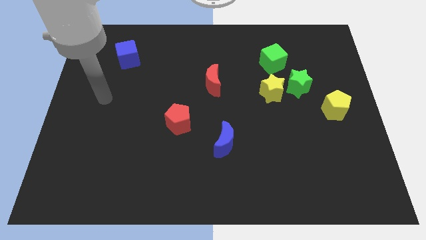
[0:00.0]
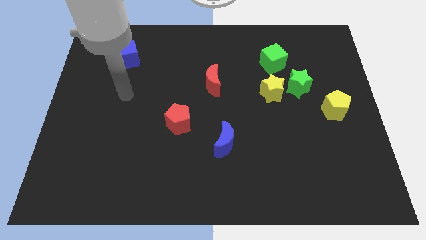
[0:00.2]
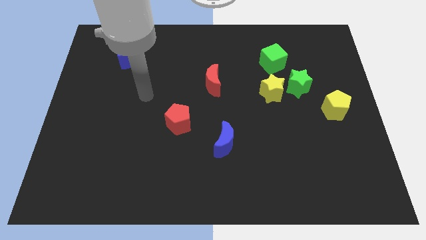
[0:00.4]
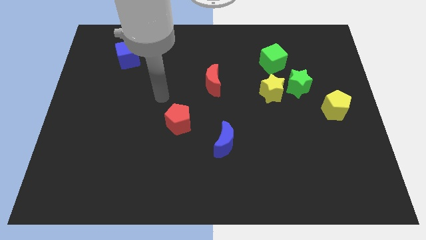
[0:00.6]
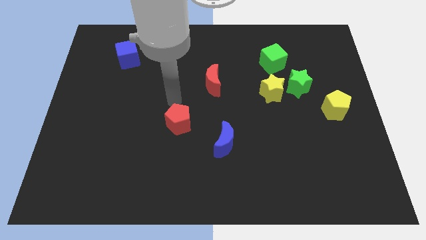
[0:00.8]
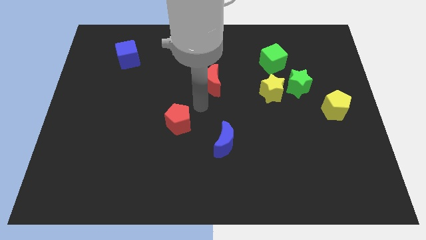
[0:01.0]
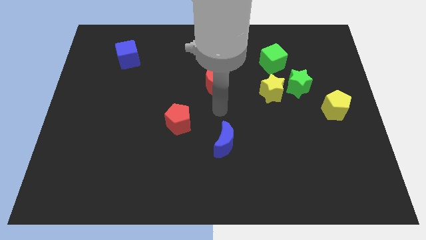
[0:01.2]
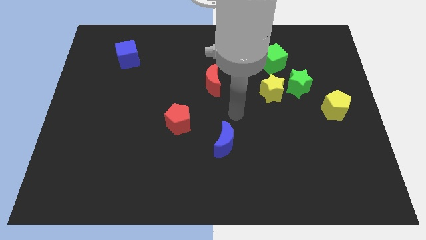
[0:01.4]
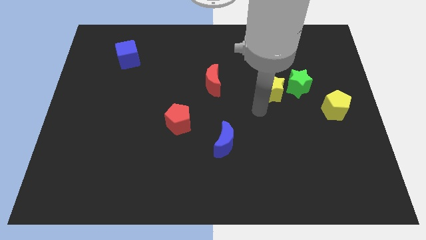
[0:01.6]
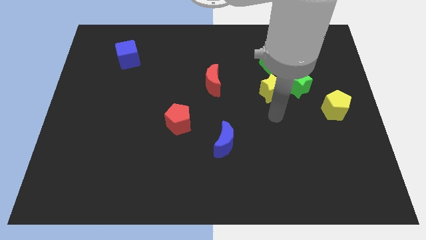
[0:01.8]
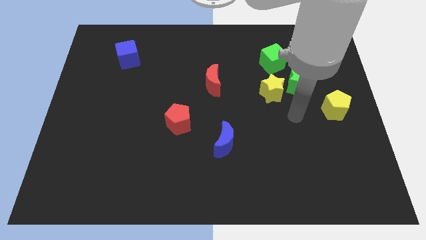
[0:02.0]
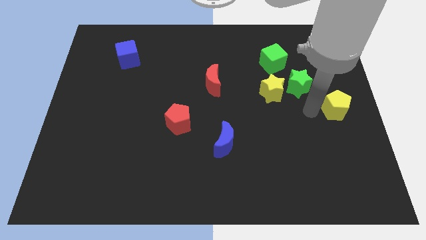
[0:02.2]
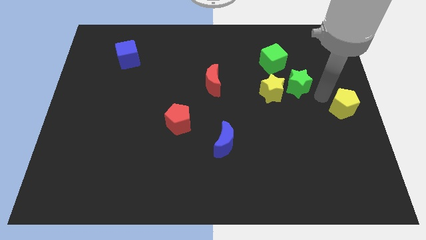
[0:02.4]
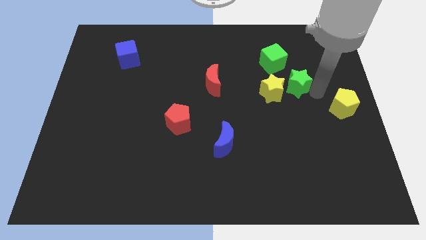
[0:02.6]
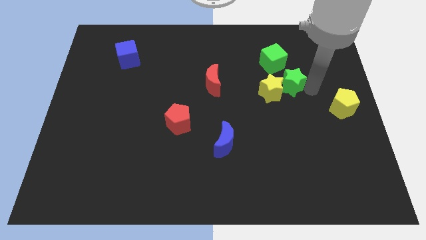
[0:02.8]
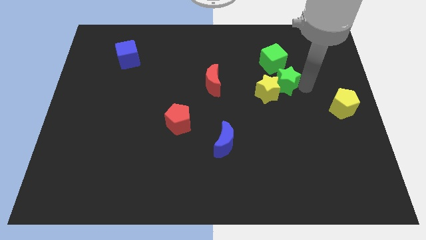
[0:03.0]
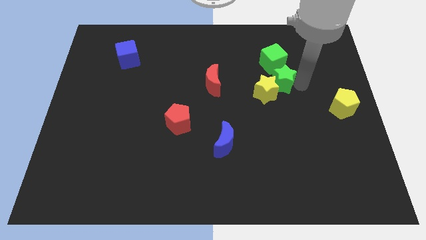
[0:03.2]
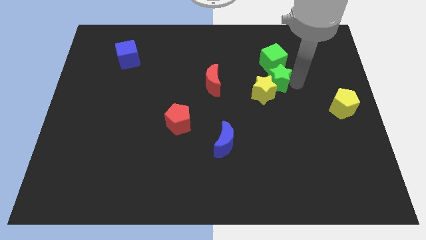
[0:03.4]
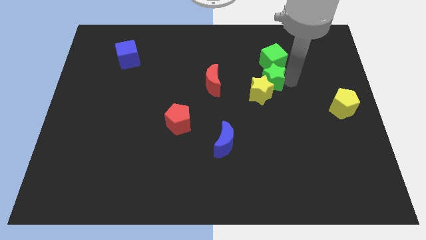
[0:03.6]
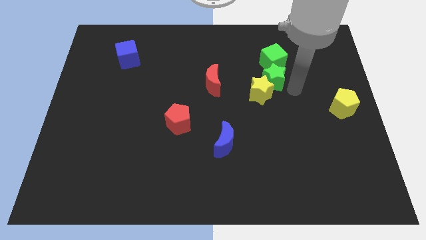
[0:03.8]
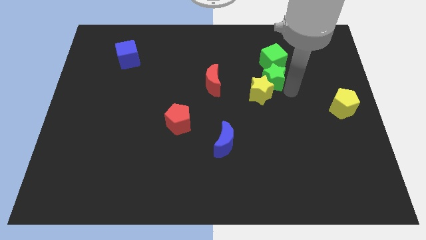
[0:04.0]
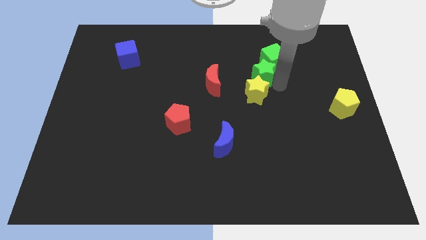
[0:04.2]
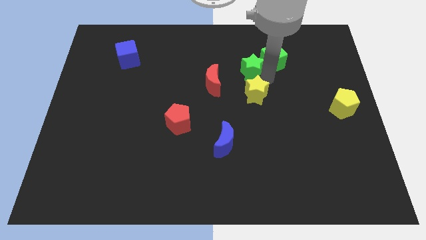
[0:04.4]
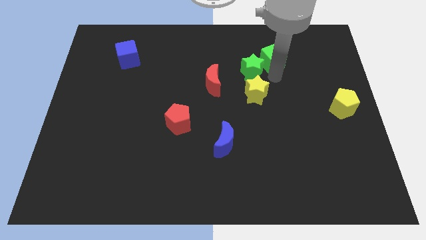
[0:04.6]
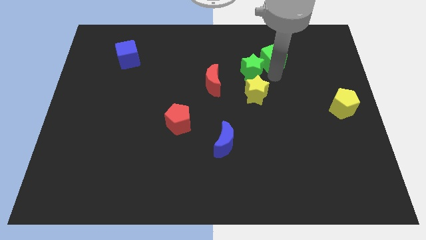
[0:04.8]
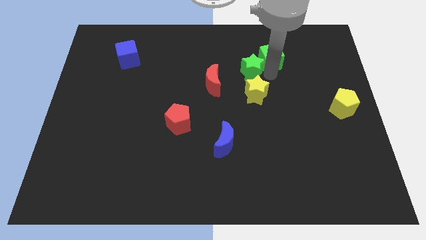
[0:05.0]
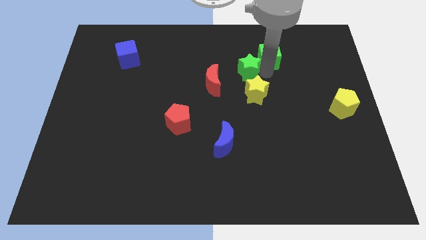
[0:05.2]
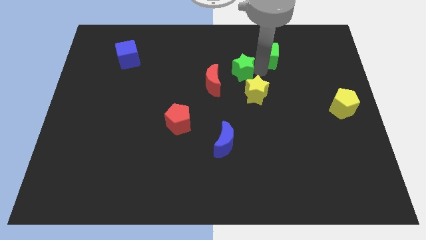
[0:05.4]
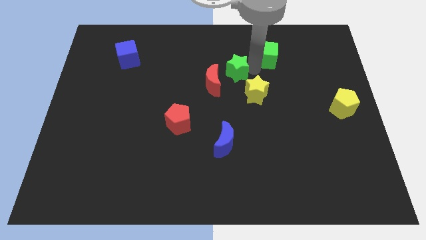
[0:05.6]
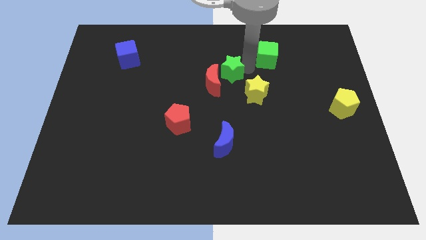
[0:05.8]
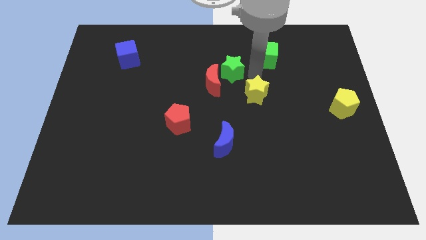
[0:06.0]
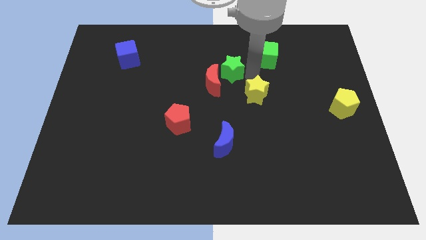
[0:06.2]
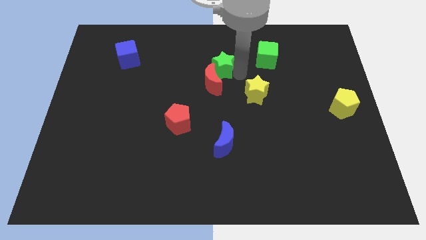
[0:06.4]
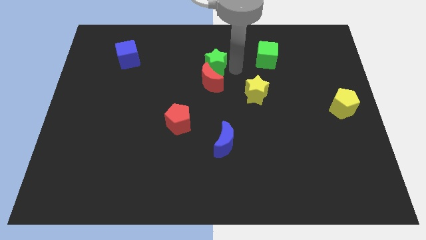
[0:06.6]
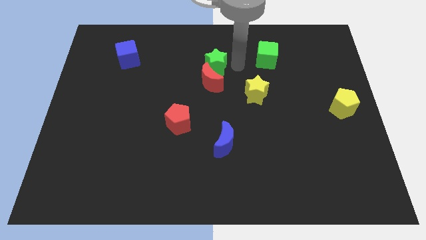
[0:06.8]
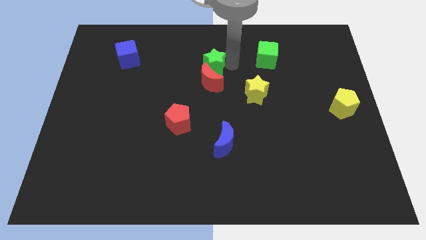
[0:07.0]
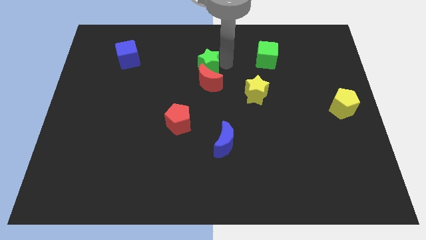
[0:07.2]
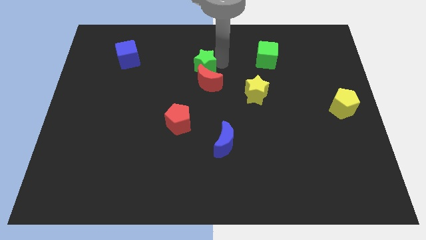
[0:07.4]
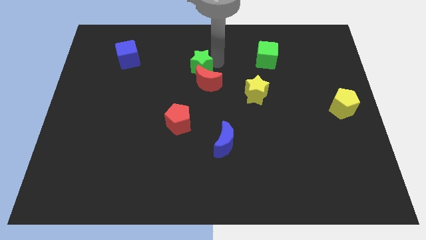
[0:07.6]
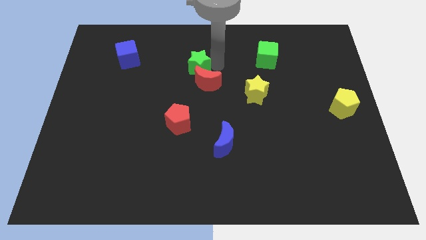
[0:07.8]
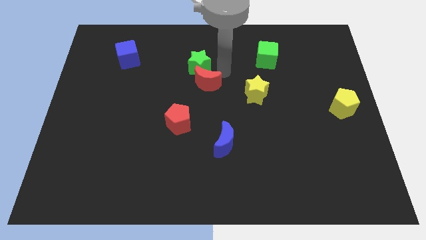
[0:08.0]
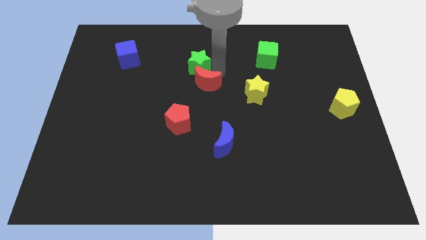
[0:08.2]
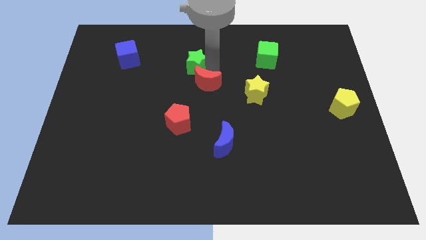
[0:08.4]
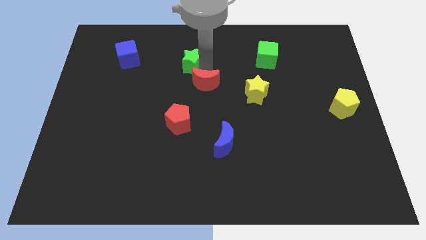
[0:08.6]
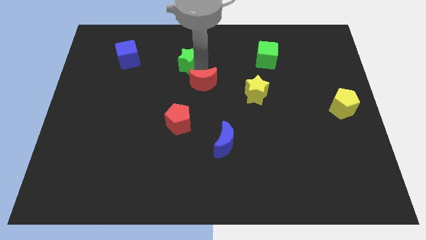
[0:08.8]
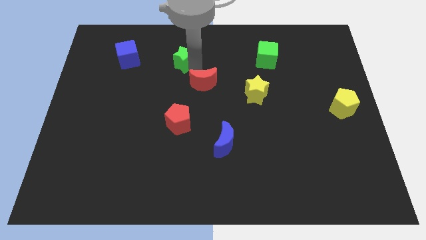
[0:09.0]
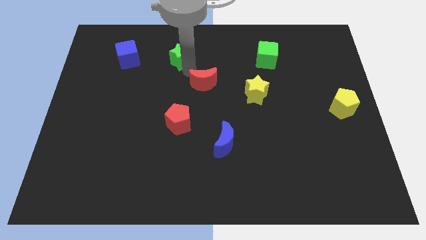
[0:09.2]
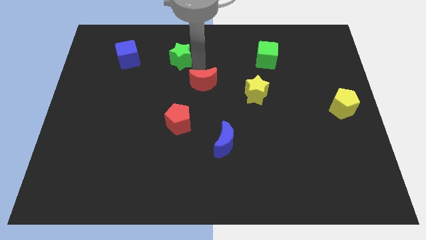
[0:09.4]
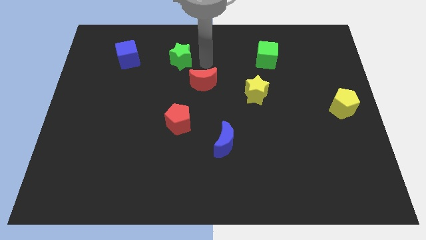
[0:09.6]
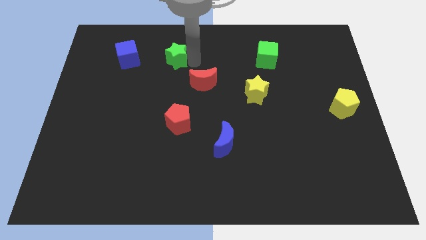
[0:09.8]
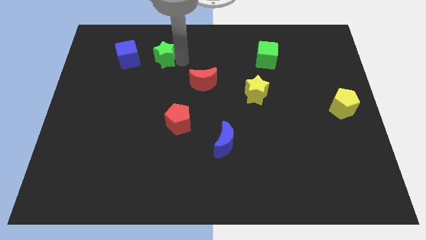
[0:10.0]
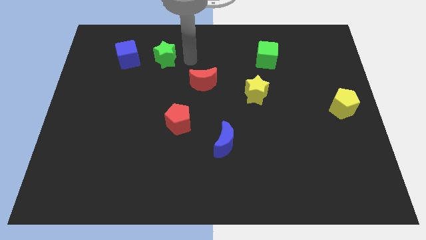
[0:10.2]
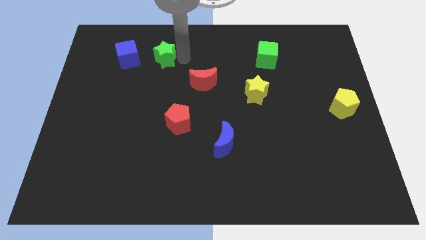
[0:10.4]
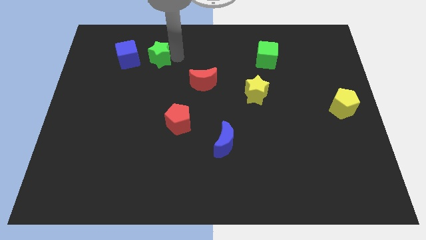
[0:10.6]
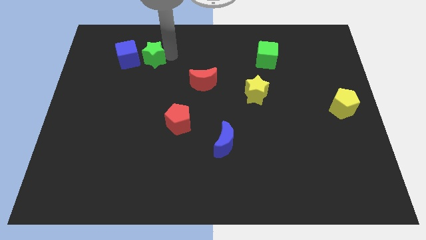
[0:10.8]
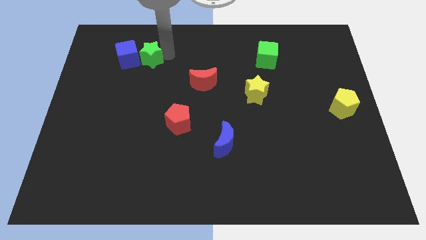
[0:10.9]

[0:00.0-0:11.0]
put the green star close to the blue cube

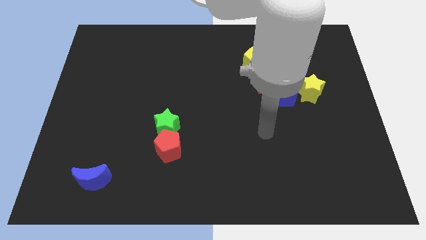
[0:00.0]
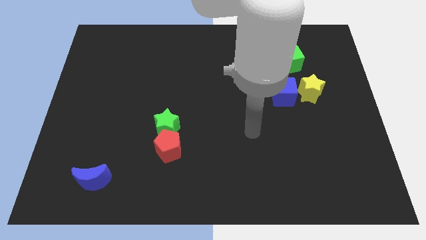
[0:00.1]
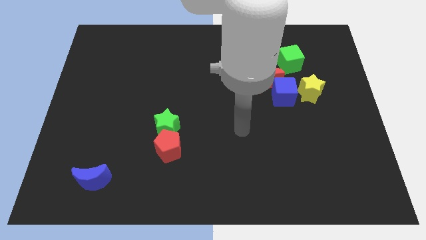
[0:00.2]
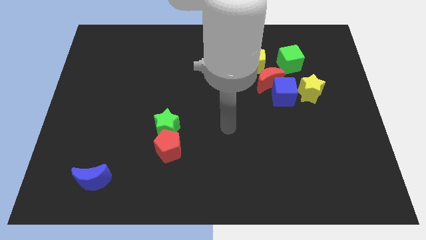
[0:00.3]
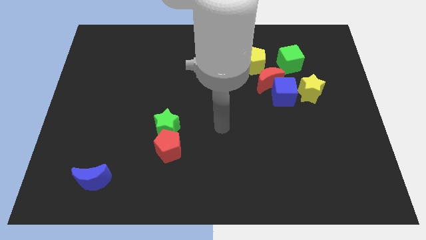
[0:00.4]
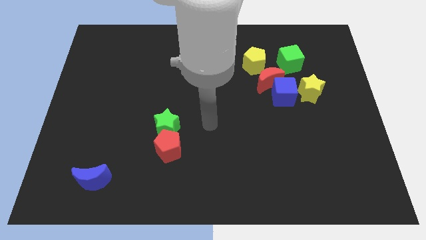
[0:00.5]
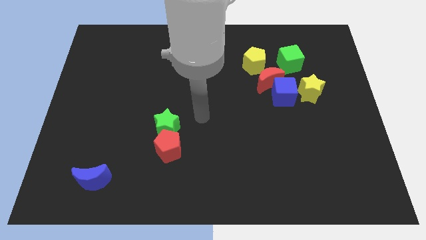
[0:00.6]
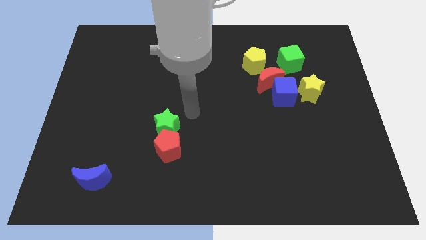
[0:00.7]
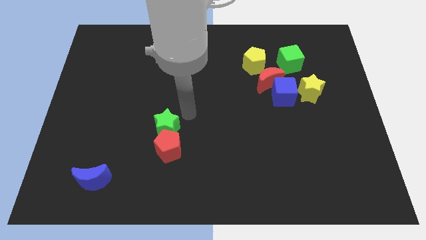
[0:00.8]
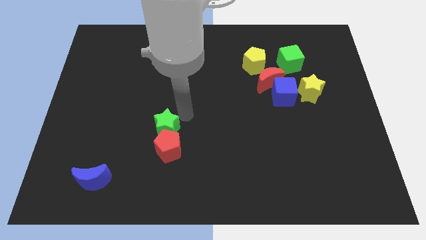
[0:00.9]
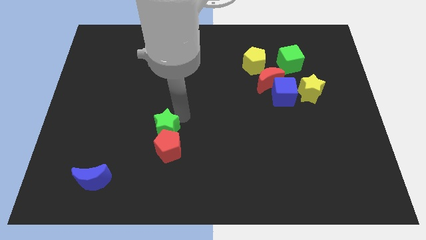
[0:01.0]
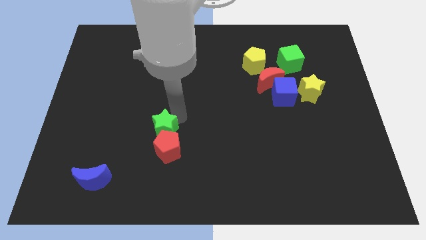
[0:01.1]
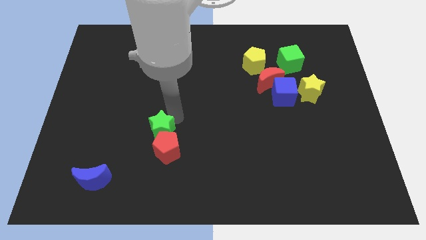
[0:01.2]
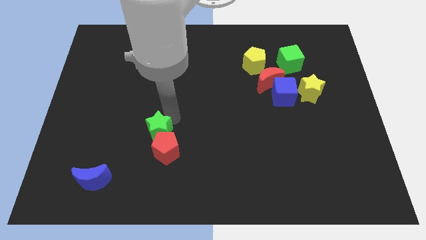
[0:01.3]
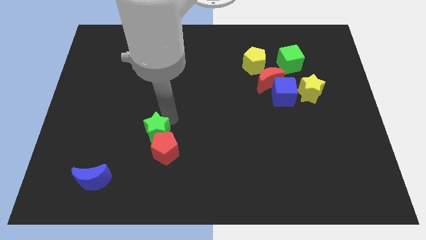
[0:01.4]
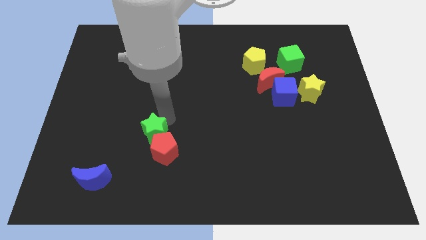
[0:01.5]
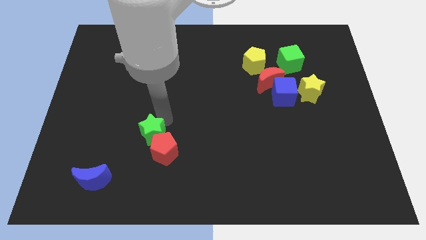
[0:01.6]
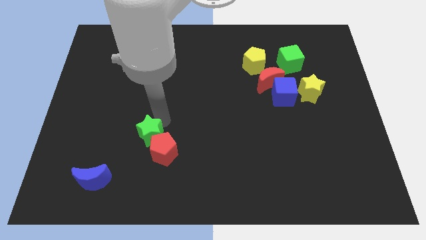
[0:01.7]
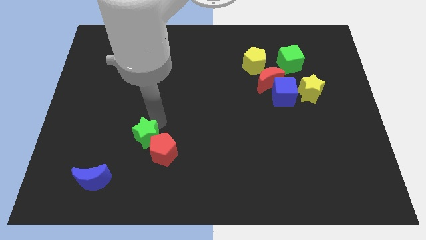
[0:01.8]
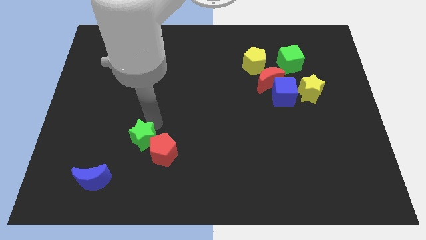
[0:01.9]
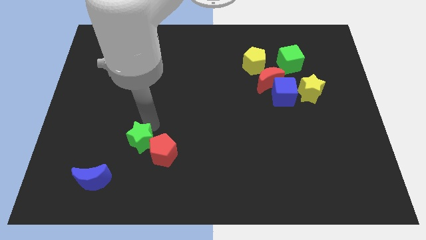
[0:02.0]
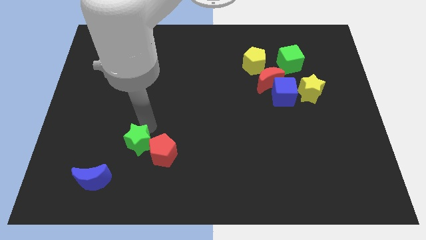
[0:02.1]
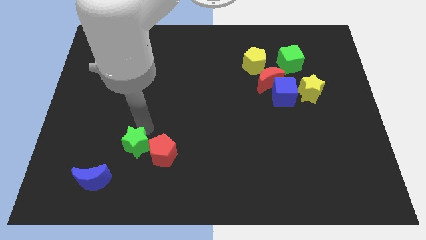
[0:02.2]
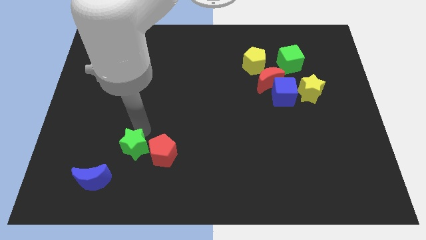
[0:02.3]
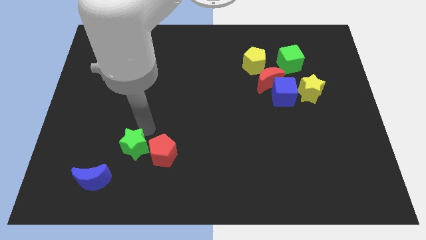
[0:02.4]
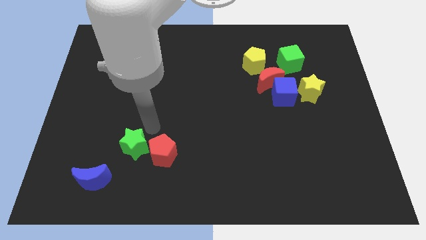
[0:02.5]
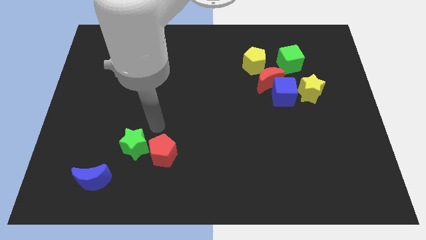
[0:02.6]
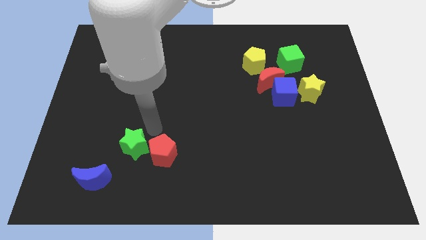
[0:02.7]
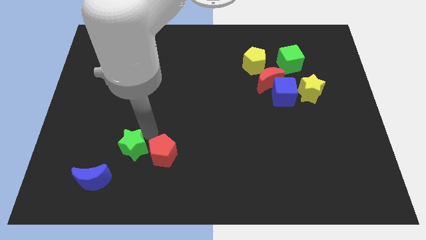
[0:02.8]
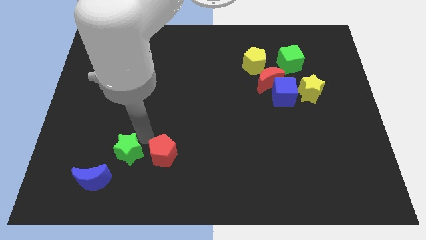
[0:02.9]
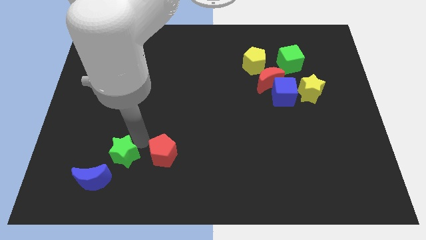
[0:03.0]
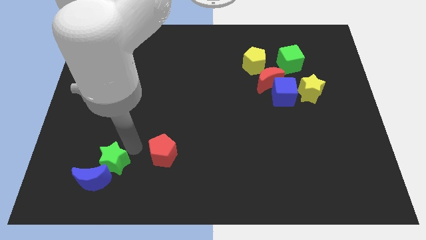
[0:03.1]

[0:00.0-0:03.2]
put the green star close to the blue moon
